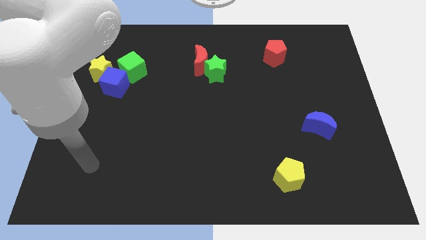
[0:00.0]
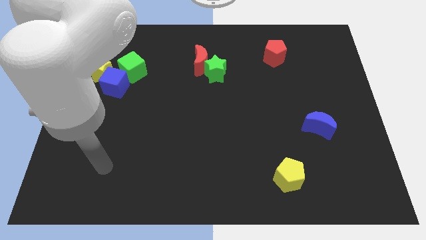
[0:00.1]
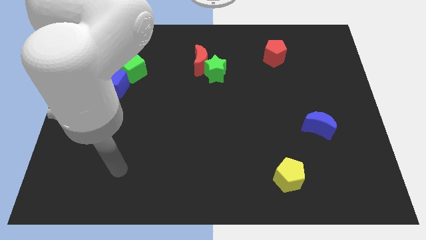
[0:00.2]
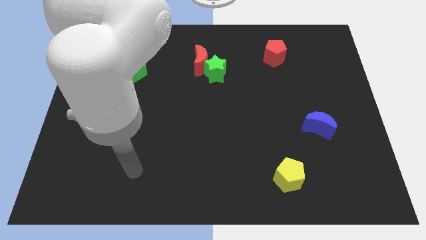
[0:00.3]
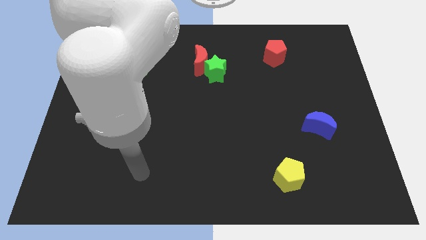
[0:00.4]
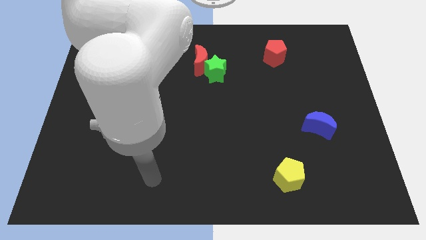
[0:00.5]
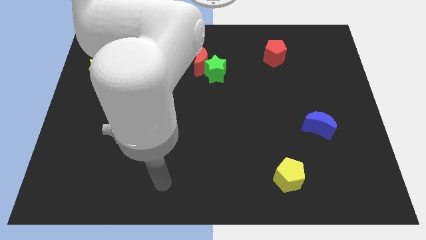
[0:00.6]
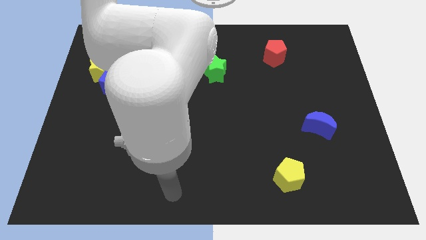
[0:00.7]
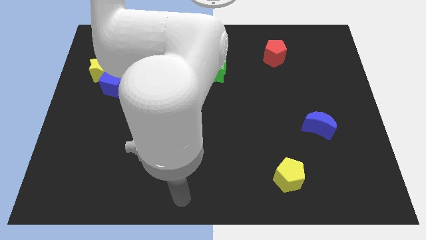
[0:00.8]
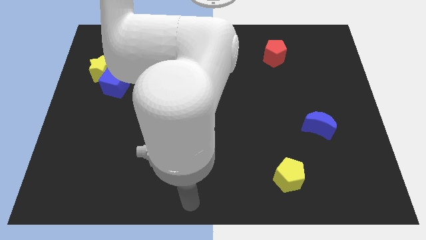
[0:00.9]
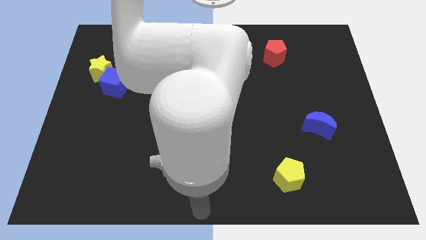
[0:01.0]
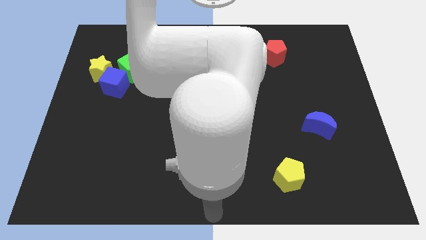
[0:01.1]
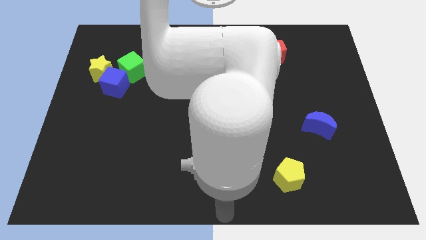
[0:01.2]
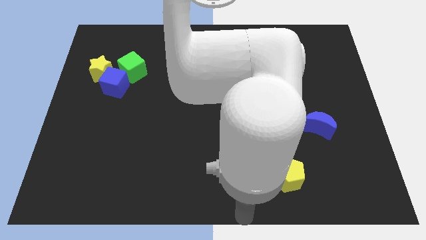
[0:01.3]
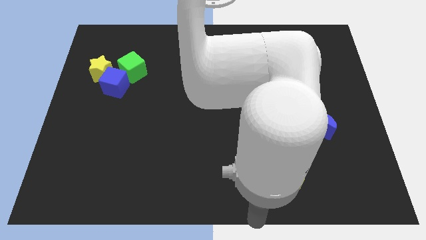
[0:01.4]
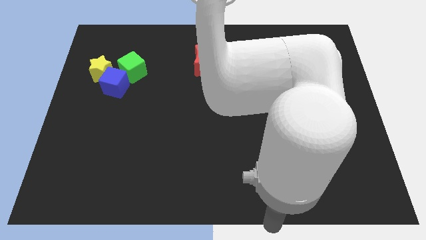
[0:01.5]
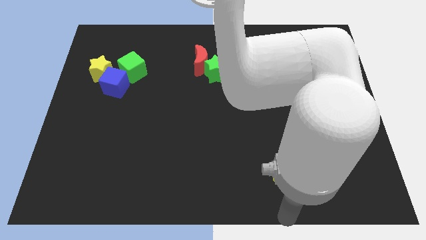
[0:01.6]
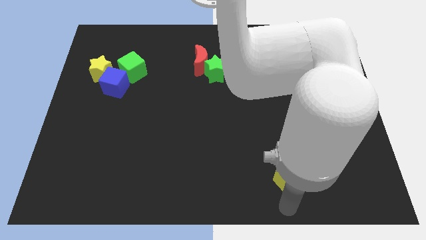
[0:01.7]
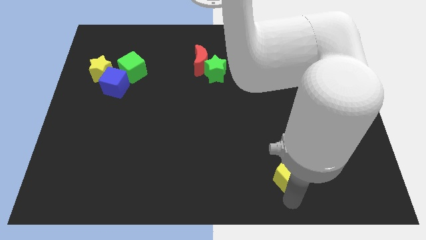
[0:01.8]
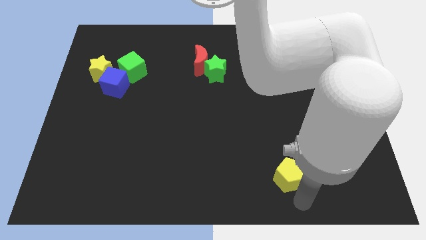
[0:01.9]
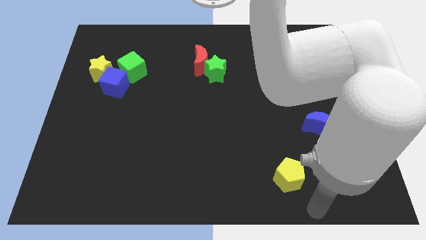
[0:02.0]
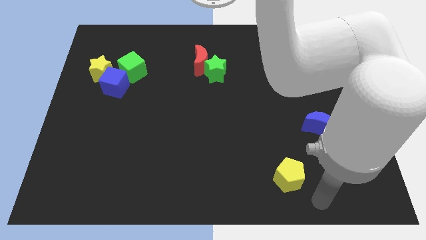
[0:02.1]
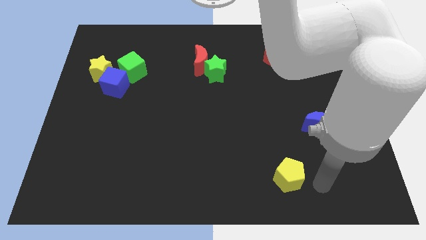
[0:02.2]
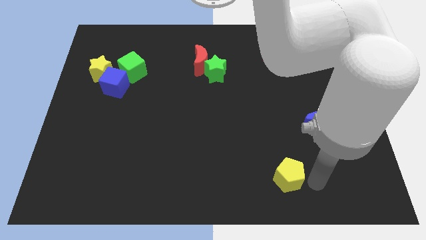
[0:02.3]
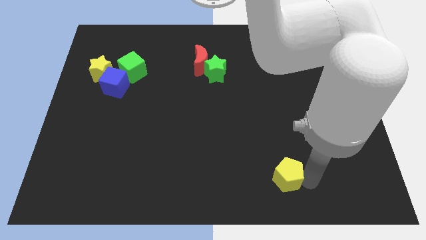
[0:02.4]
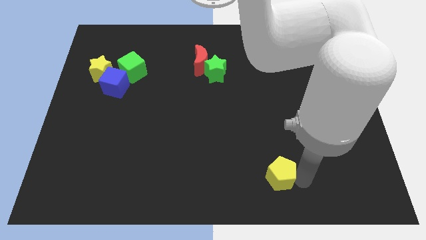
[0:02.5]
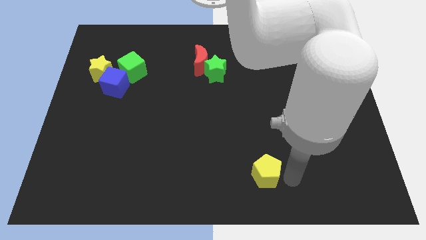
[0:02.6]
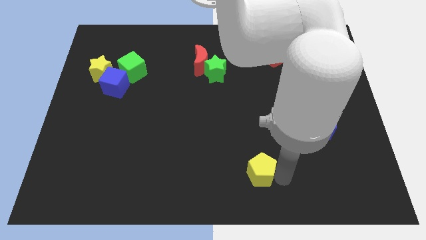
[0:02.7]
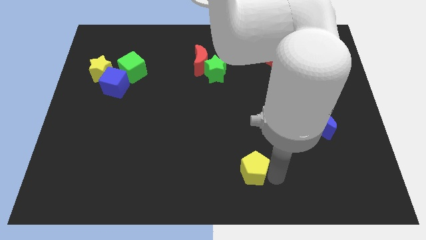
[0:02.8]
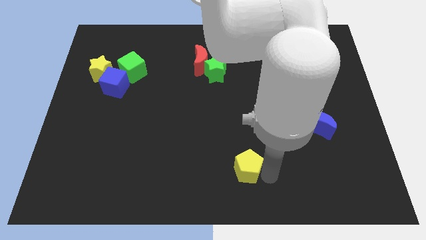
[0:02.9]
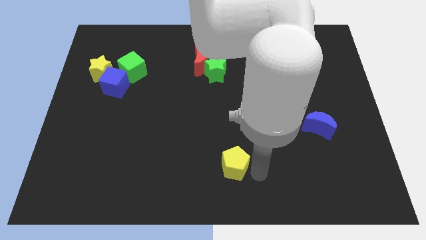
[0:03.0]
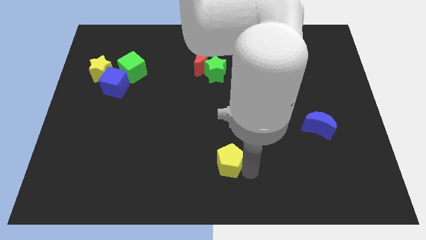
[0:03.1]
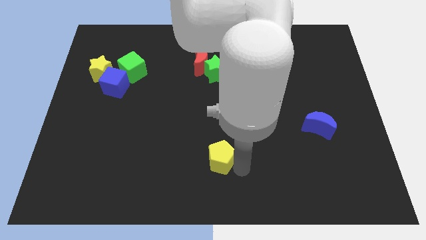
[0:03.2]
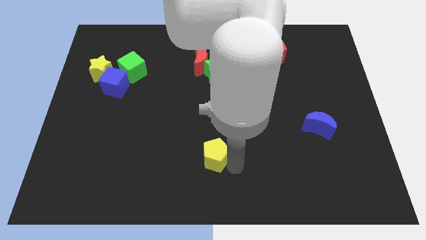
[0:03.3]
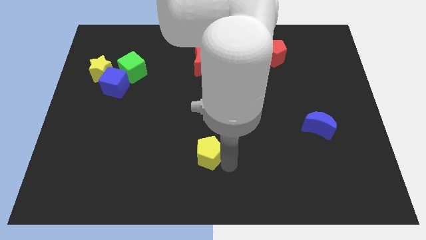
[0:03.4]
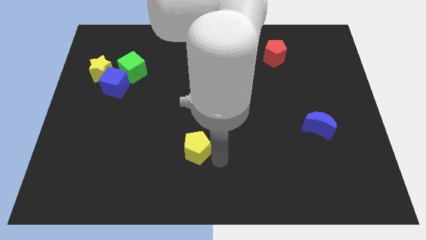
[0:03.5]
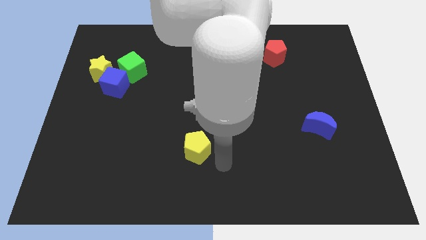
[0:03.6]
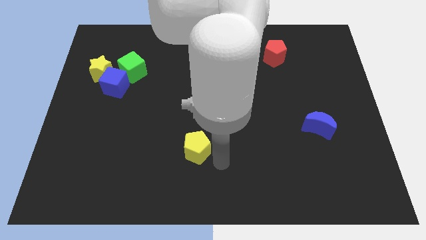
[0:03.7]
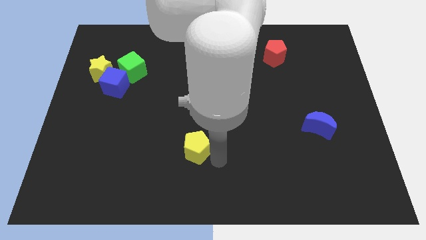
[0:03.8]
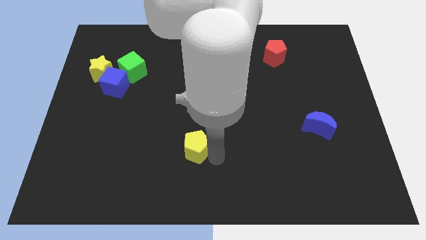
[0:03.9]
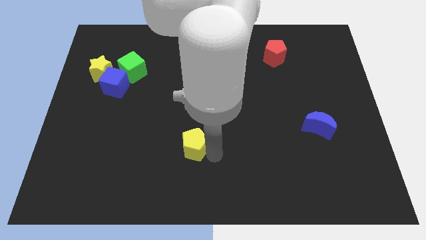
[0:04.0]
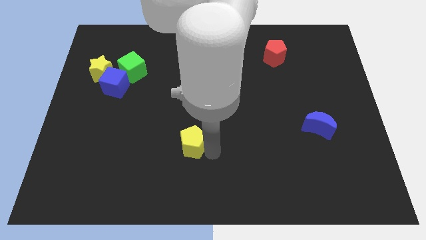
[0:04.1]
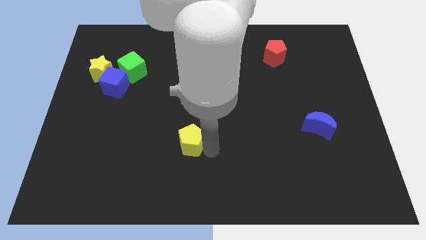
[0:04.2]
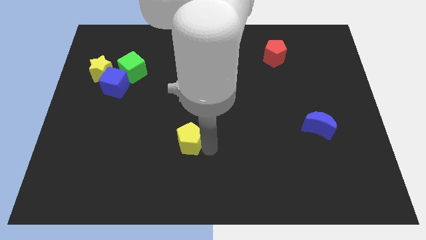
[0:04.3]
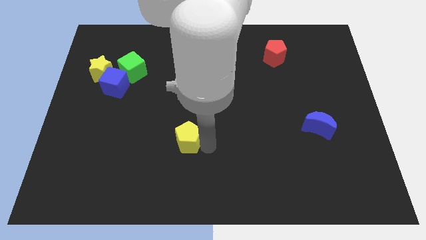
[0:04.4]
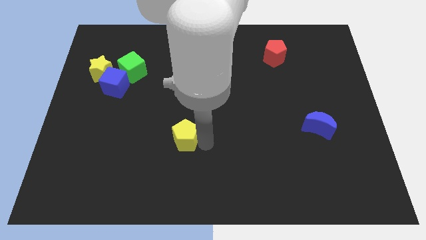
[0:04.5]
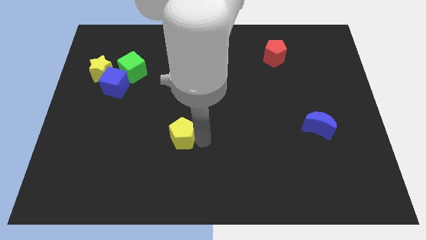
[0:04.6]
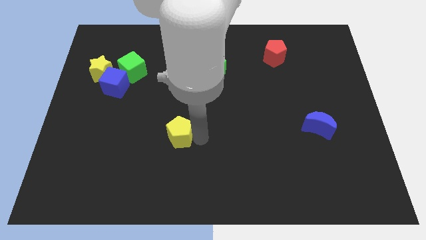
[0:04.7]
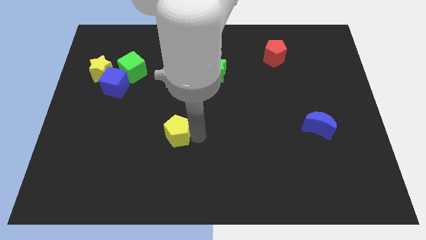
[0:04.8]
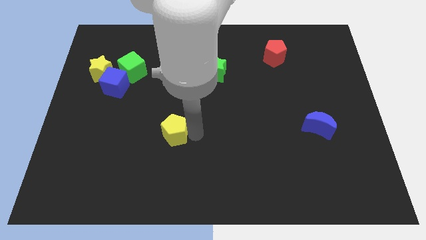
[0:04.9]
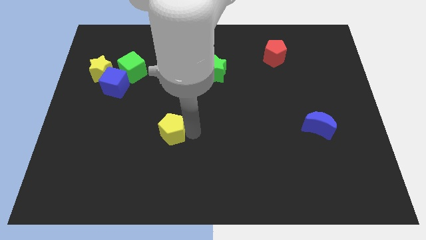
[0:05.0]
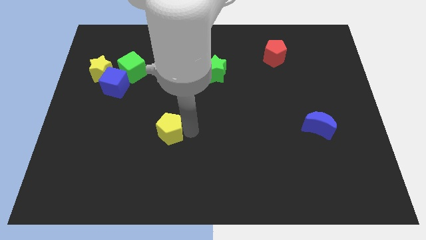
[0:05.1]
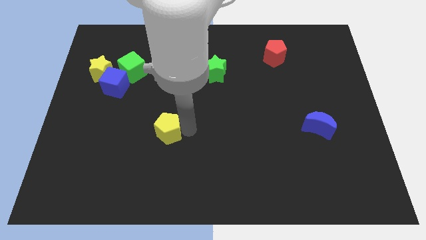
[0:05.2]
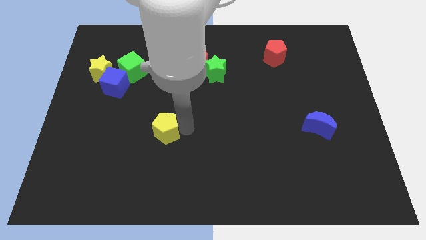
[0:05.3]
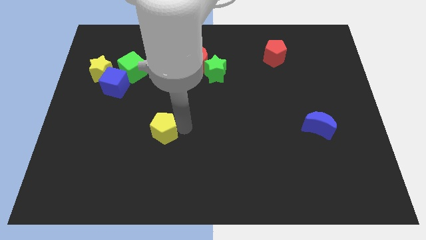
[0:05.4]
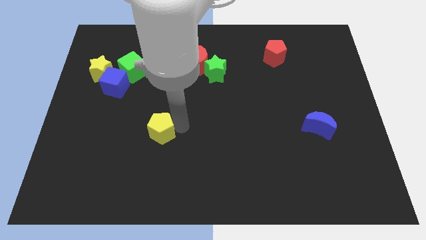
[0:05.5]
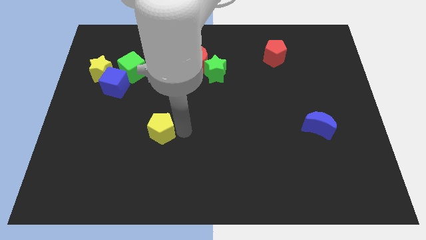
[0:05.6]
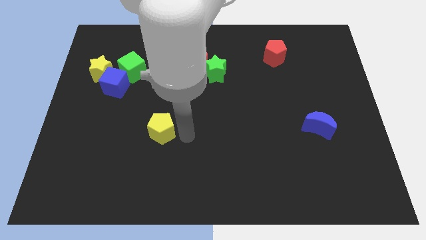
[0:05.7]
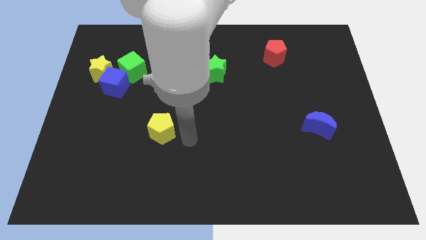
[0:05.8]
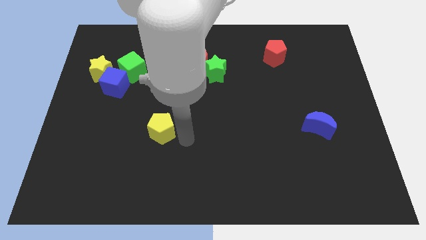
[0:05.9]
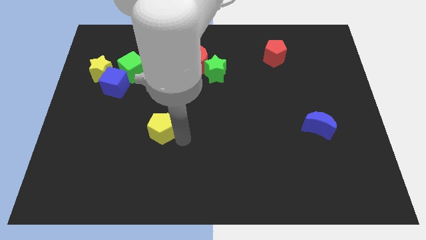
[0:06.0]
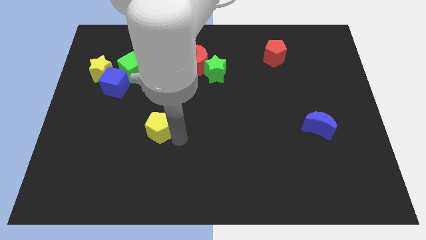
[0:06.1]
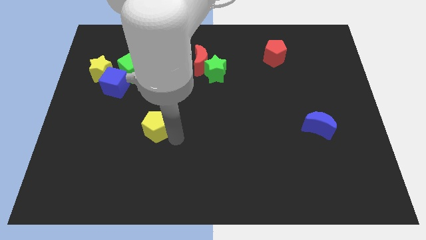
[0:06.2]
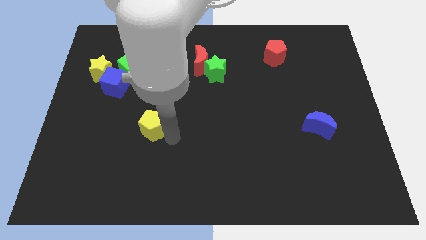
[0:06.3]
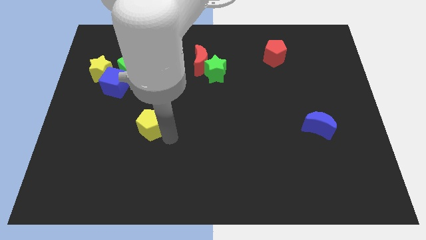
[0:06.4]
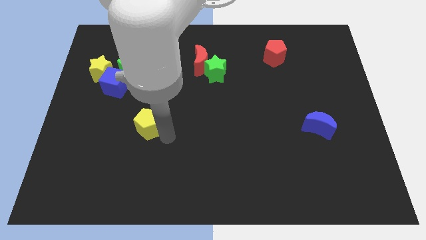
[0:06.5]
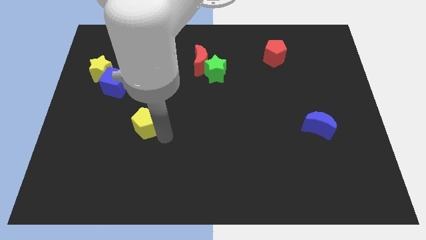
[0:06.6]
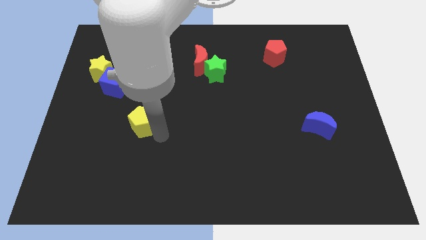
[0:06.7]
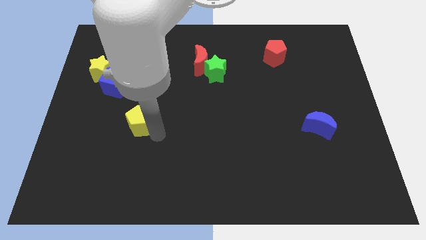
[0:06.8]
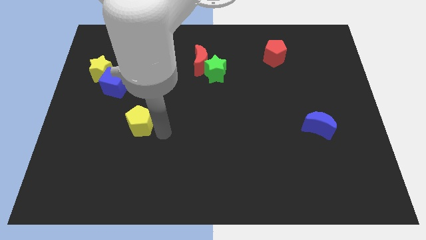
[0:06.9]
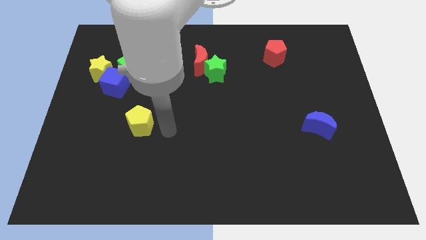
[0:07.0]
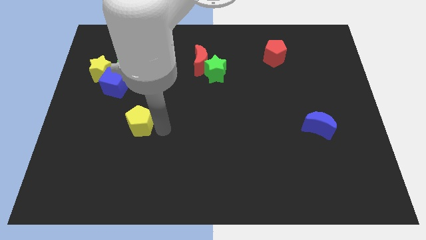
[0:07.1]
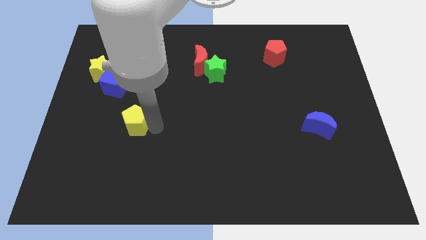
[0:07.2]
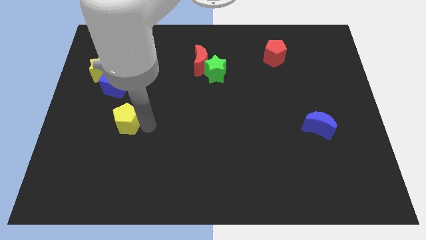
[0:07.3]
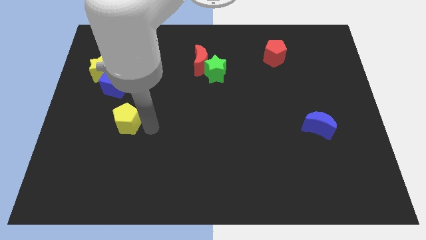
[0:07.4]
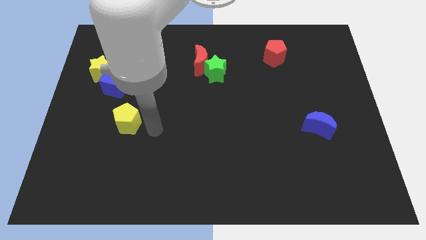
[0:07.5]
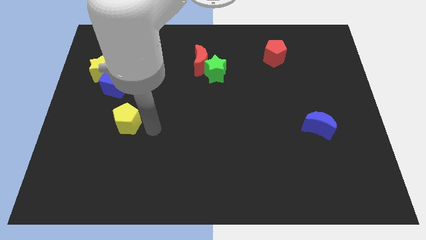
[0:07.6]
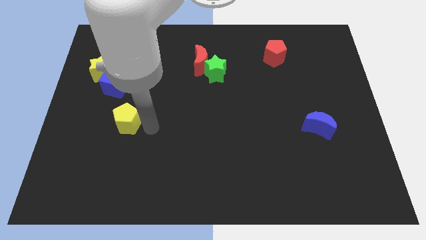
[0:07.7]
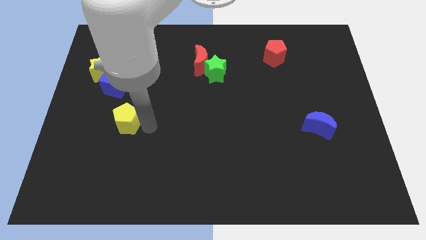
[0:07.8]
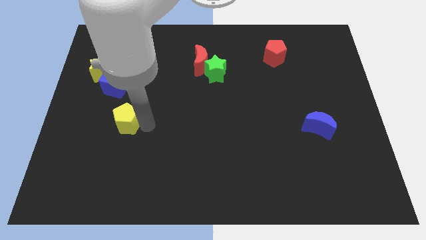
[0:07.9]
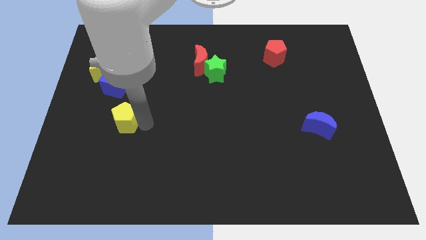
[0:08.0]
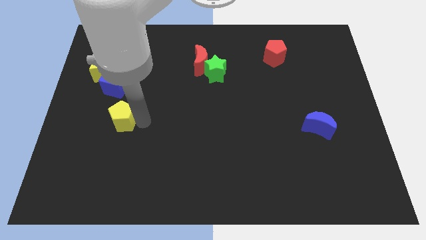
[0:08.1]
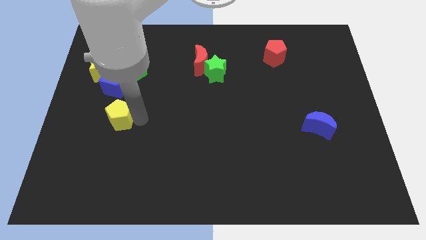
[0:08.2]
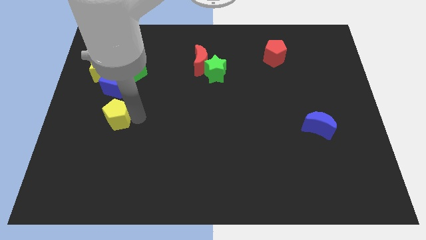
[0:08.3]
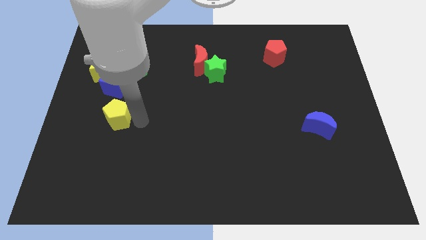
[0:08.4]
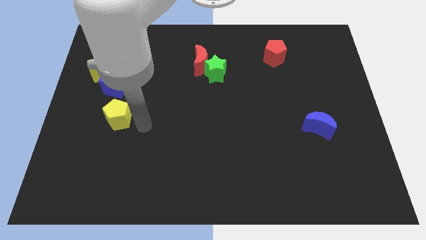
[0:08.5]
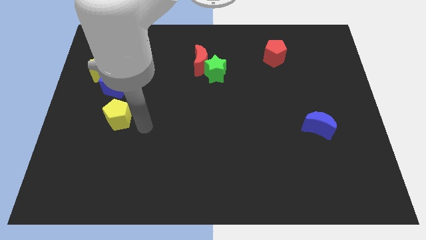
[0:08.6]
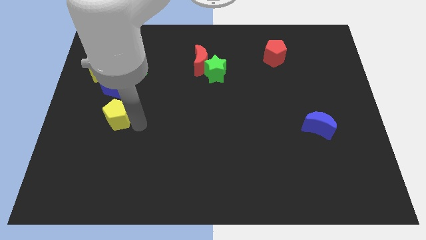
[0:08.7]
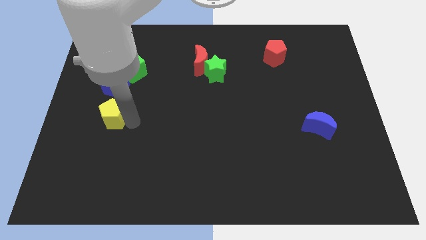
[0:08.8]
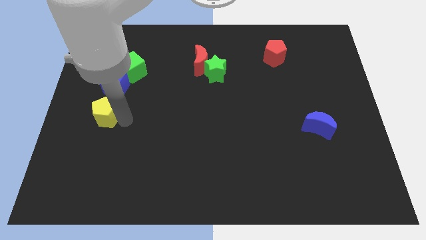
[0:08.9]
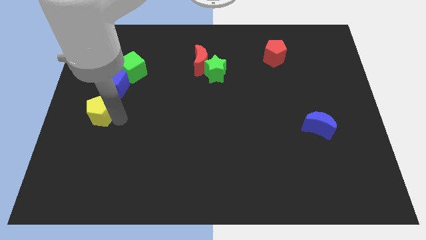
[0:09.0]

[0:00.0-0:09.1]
push the yellow pentagon to the center left
